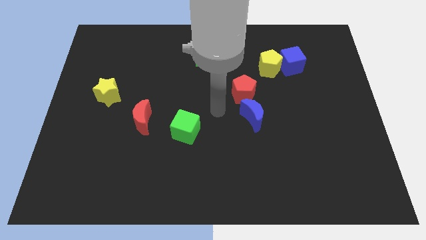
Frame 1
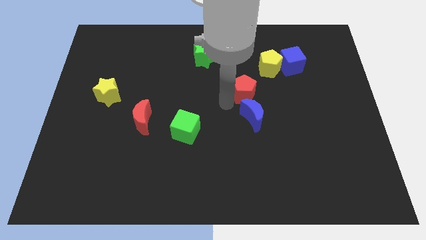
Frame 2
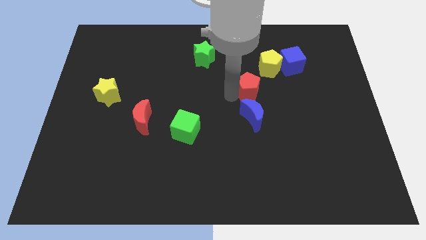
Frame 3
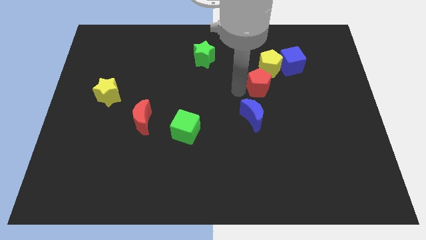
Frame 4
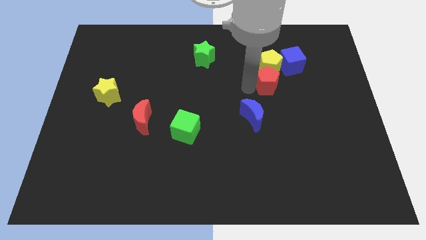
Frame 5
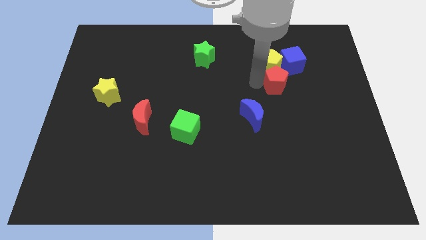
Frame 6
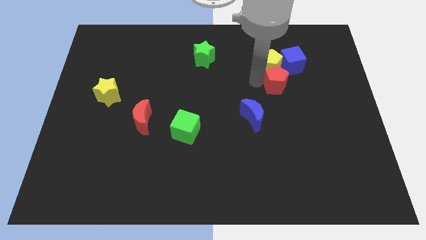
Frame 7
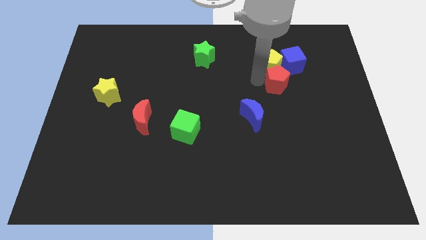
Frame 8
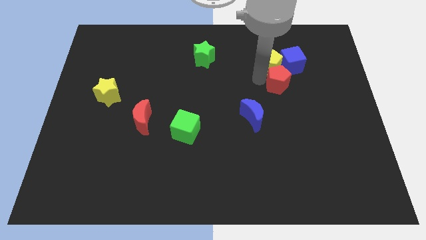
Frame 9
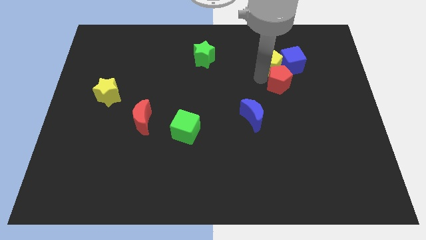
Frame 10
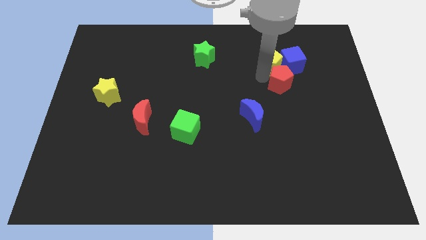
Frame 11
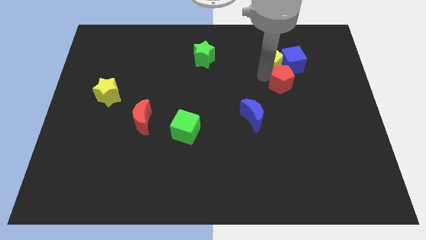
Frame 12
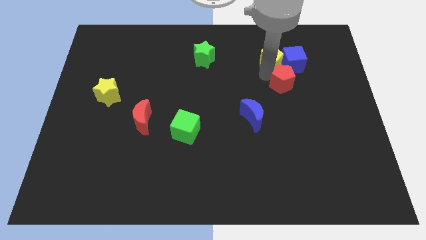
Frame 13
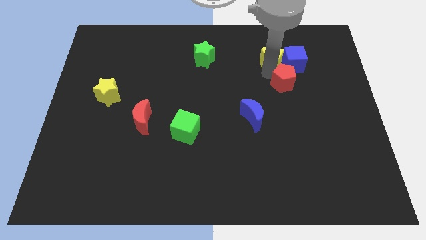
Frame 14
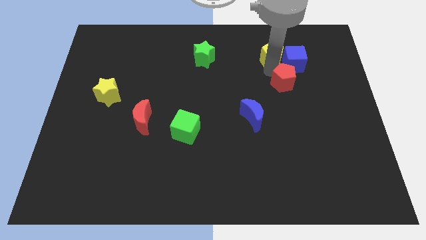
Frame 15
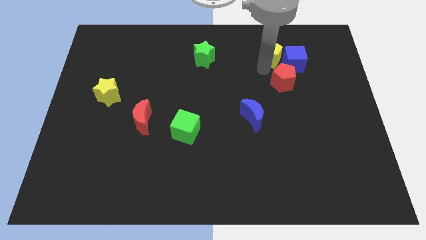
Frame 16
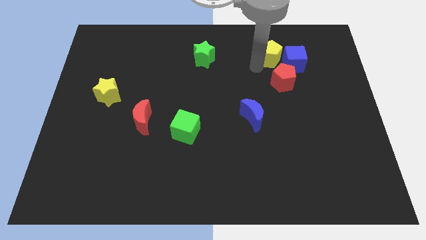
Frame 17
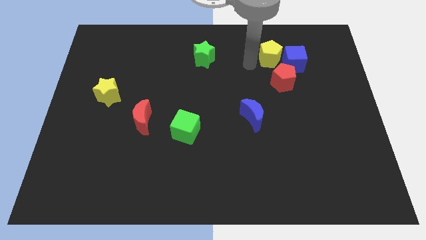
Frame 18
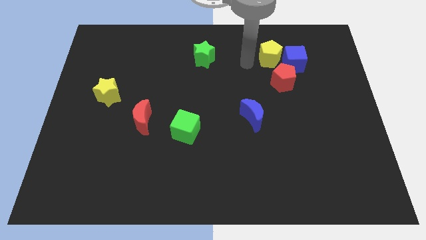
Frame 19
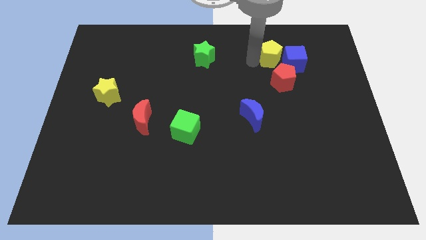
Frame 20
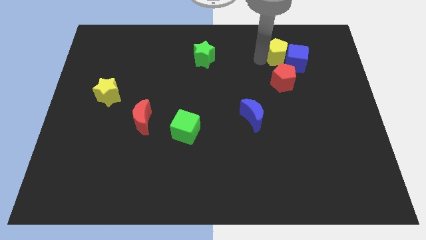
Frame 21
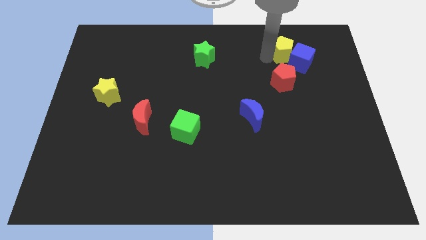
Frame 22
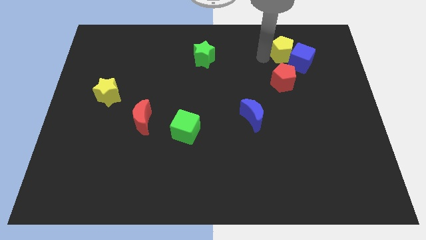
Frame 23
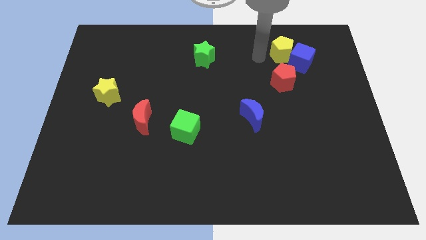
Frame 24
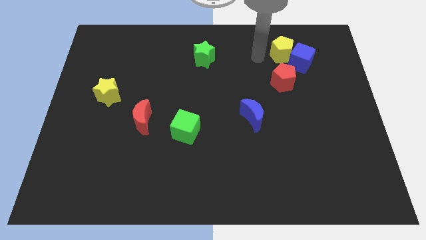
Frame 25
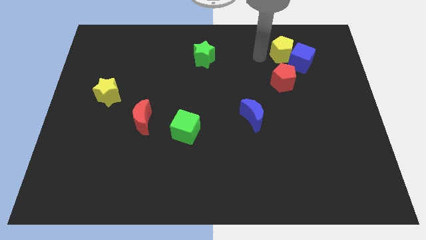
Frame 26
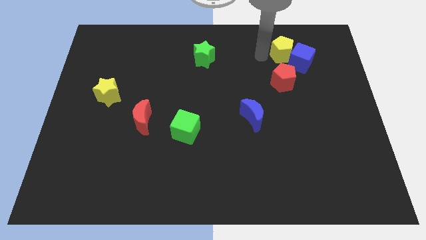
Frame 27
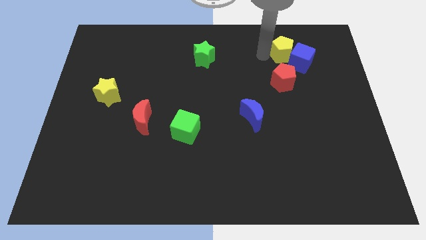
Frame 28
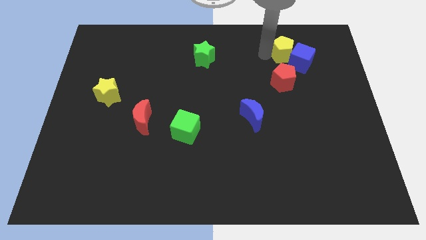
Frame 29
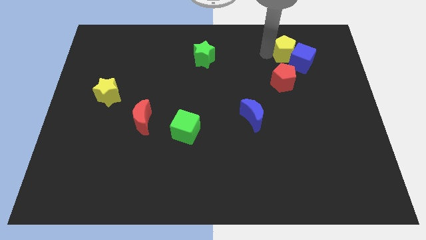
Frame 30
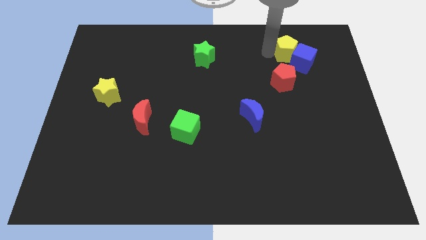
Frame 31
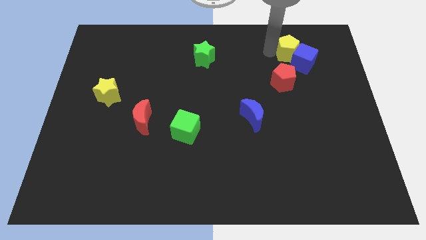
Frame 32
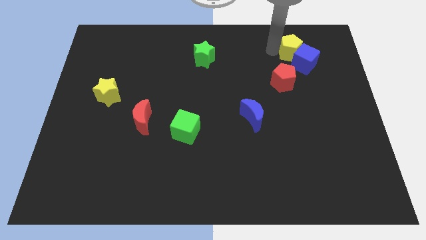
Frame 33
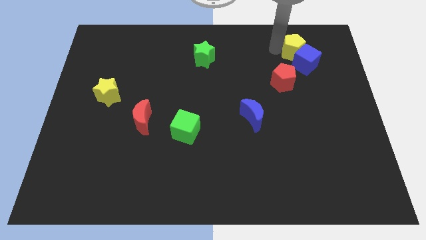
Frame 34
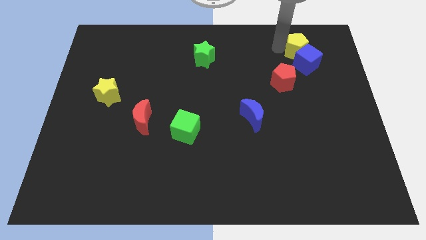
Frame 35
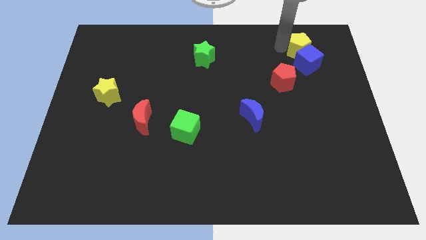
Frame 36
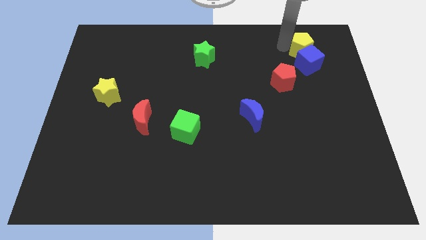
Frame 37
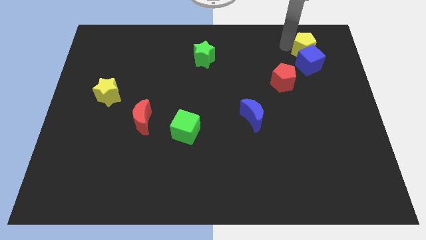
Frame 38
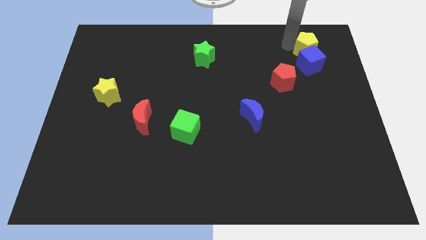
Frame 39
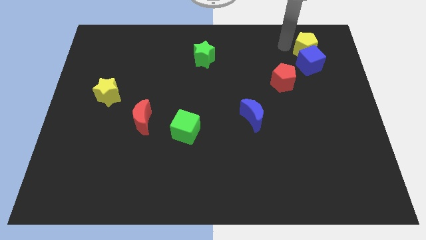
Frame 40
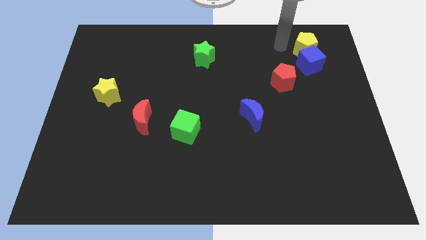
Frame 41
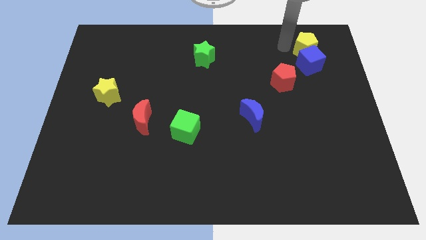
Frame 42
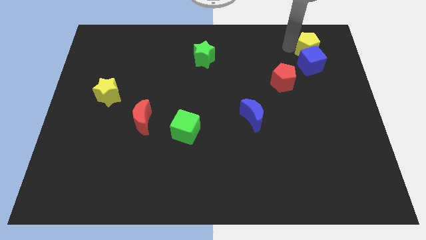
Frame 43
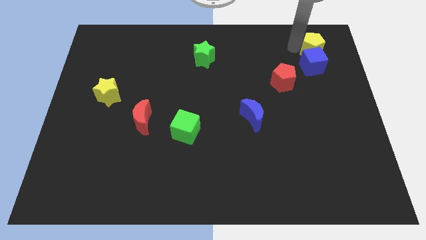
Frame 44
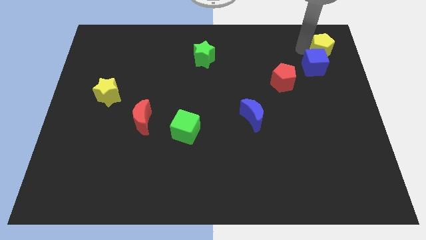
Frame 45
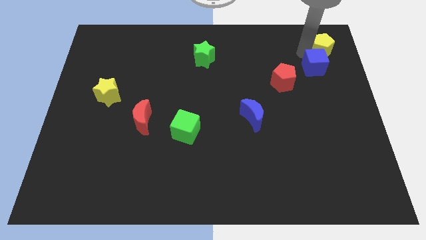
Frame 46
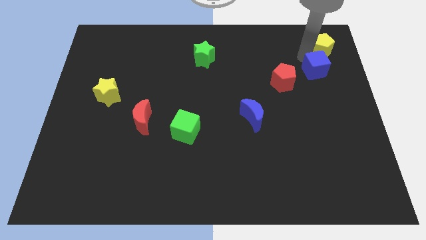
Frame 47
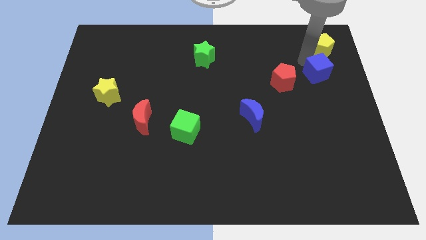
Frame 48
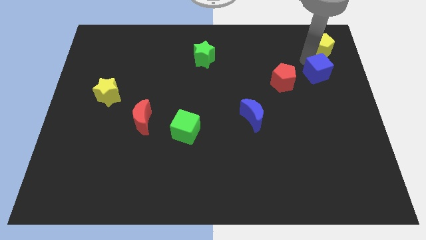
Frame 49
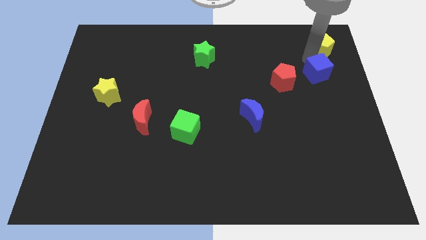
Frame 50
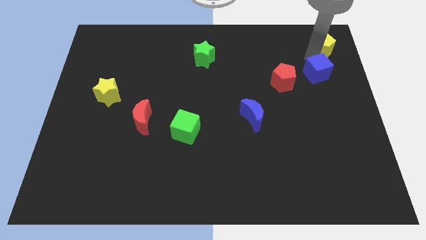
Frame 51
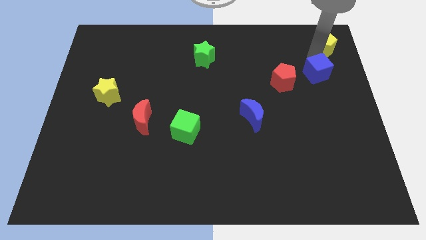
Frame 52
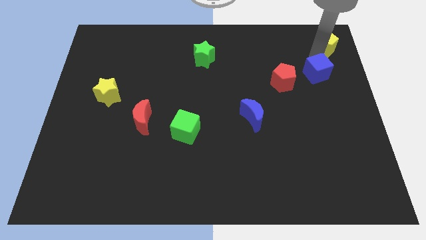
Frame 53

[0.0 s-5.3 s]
move the yellow pentagon to the upper right corner
